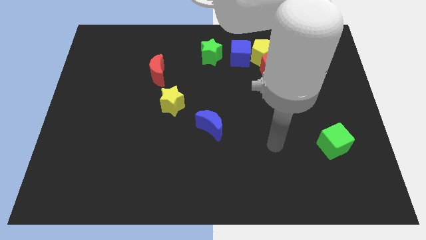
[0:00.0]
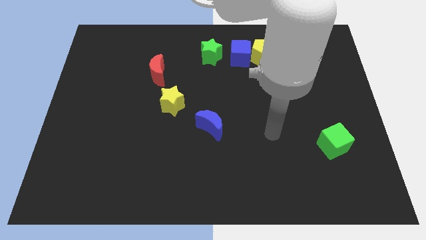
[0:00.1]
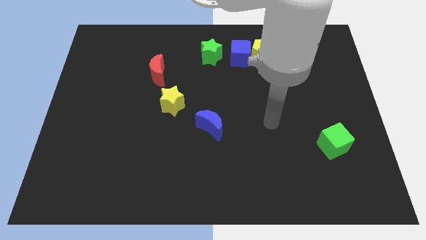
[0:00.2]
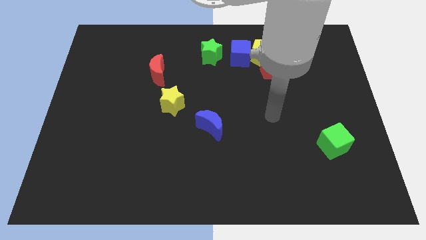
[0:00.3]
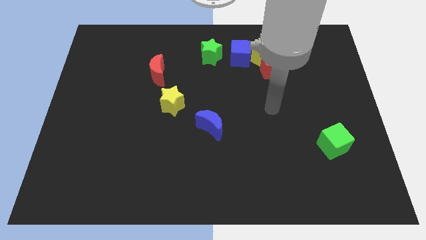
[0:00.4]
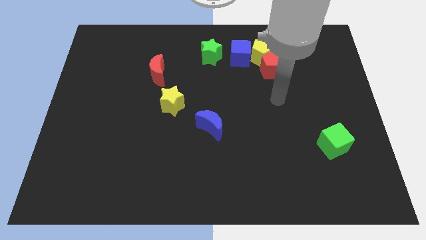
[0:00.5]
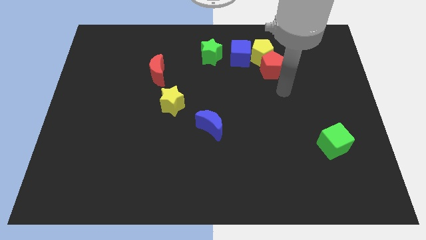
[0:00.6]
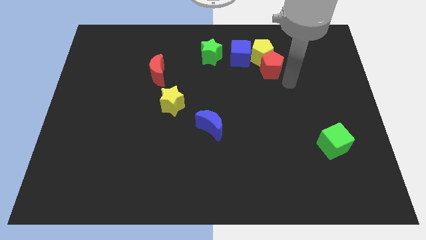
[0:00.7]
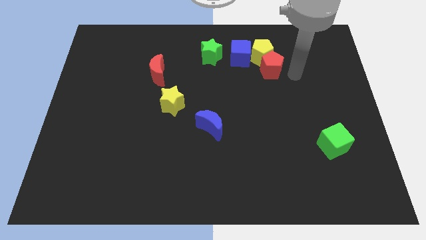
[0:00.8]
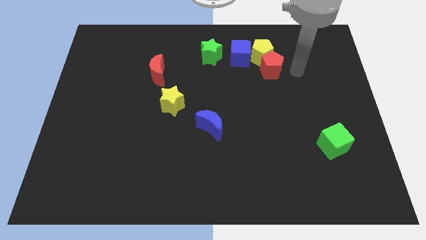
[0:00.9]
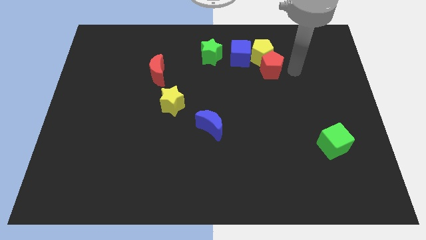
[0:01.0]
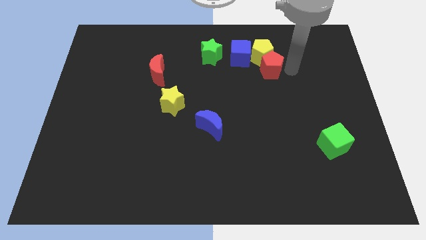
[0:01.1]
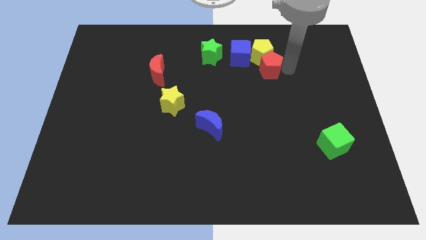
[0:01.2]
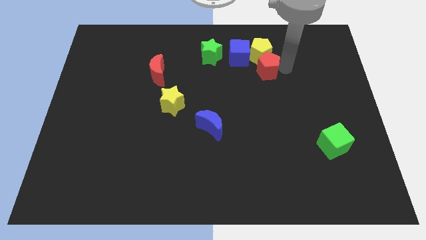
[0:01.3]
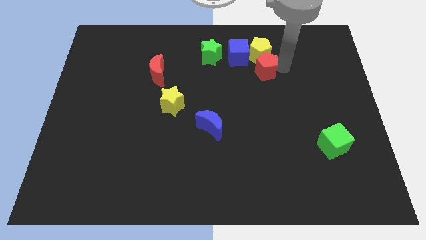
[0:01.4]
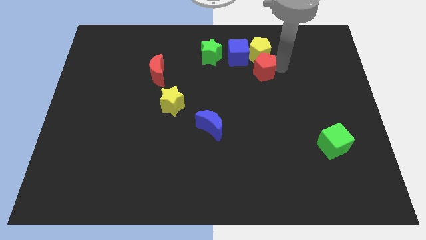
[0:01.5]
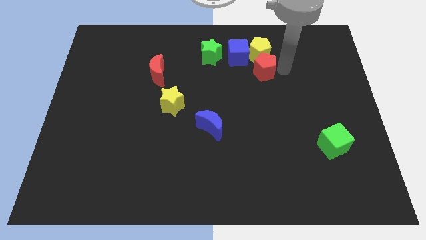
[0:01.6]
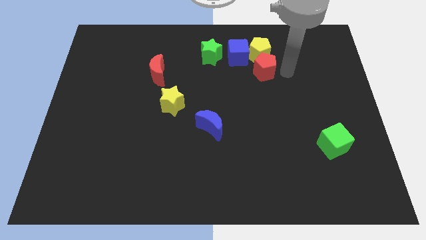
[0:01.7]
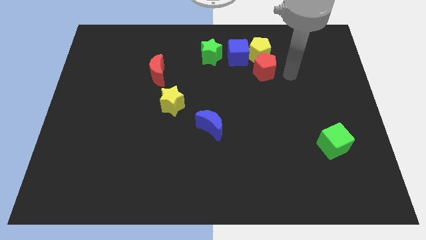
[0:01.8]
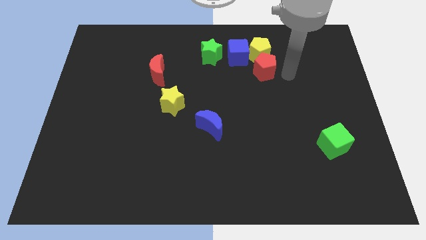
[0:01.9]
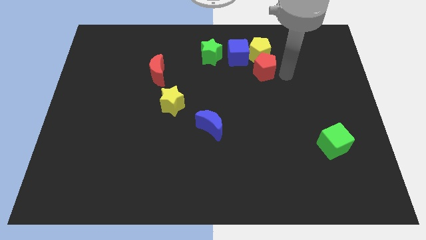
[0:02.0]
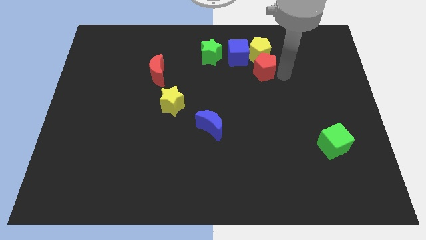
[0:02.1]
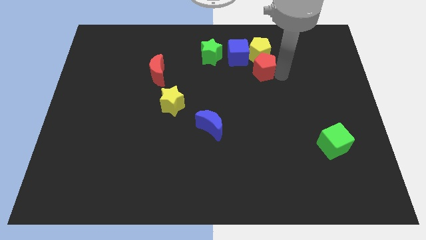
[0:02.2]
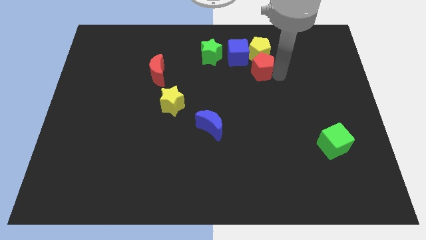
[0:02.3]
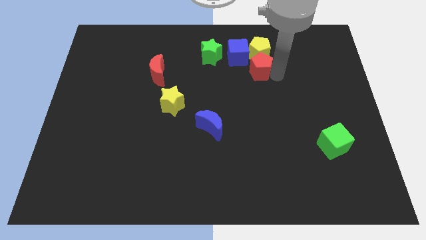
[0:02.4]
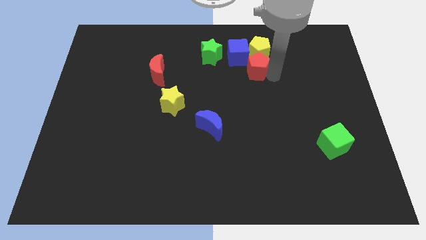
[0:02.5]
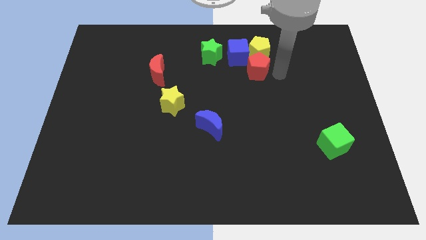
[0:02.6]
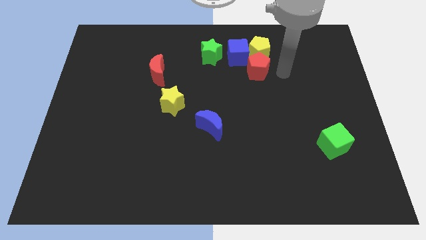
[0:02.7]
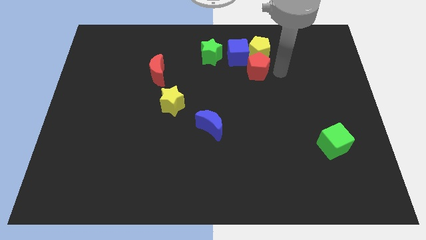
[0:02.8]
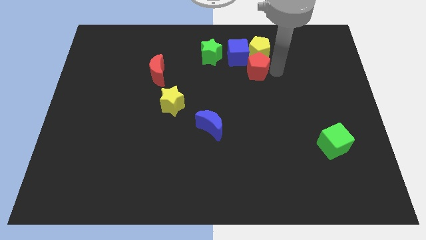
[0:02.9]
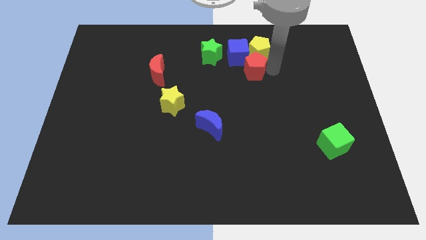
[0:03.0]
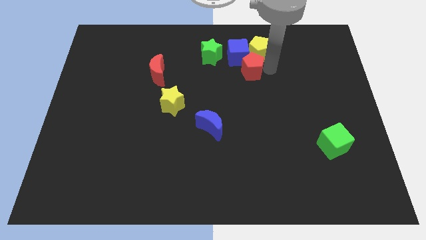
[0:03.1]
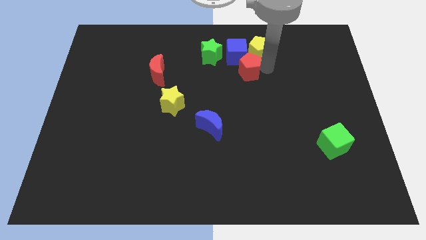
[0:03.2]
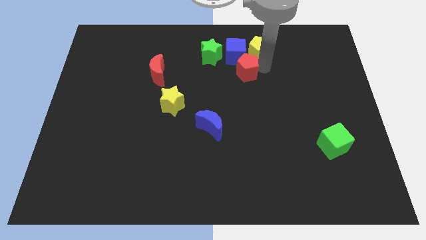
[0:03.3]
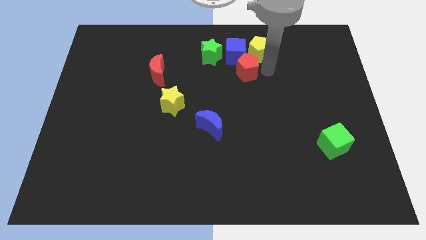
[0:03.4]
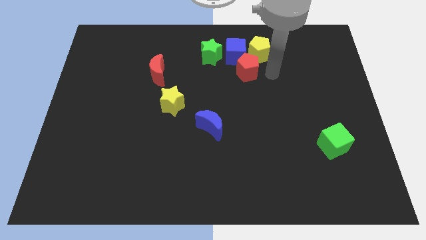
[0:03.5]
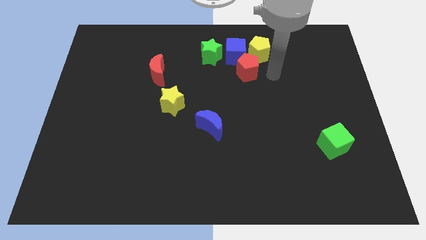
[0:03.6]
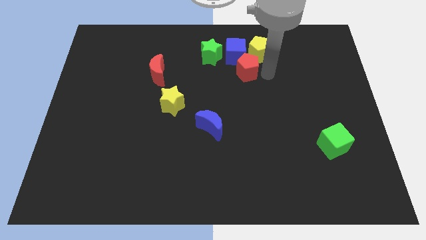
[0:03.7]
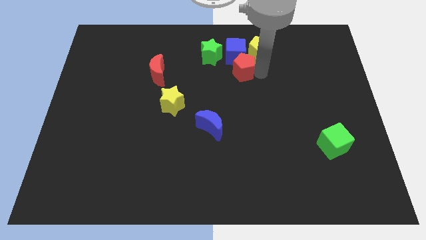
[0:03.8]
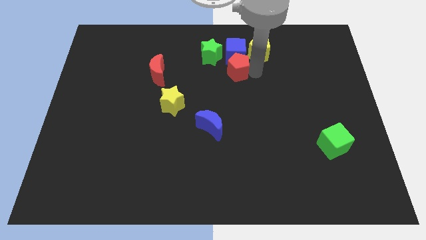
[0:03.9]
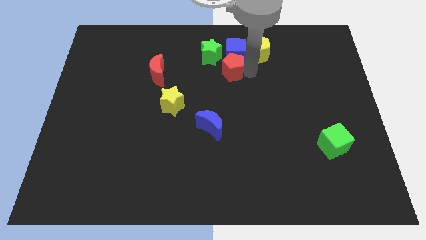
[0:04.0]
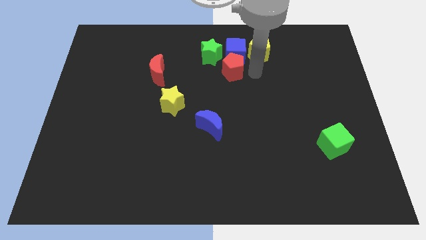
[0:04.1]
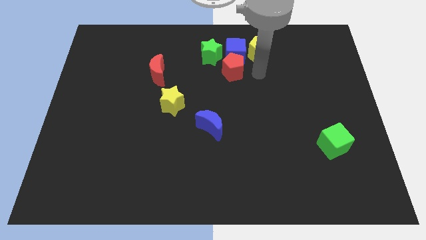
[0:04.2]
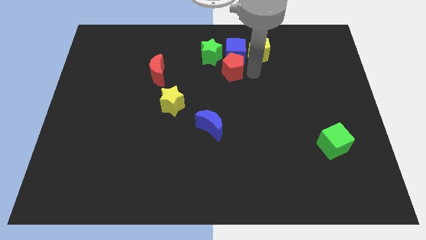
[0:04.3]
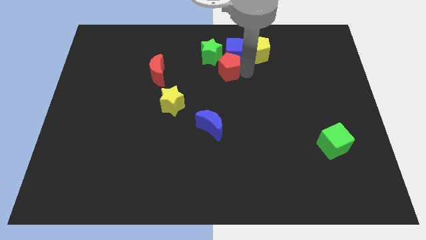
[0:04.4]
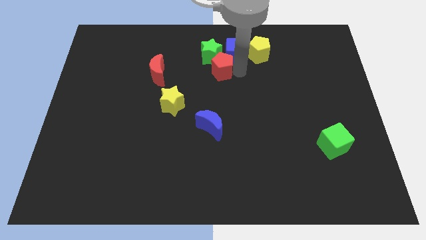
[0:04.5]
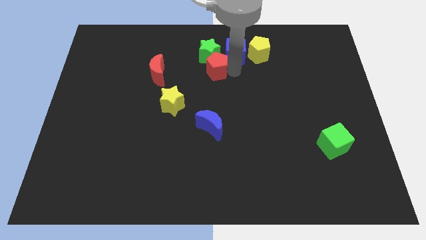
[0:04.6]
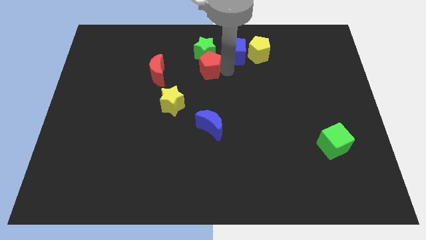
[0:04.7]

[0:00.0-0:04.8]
slide the red pentagon diagonally down and to the left of the green star

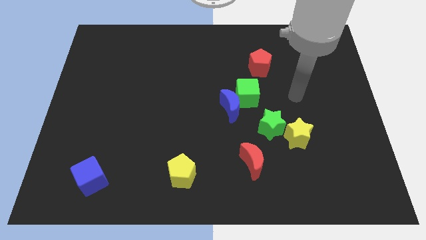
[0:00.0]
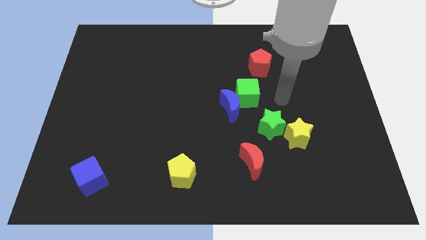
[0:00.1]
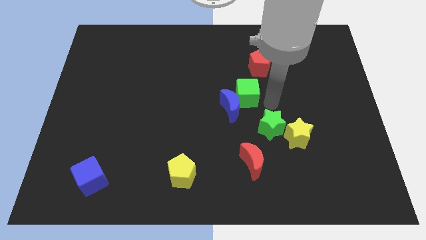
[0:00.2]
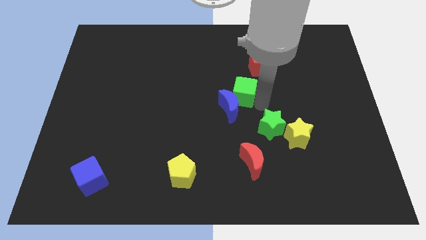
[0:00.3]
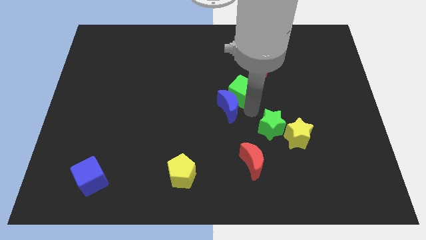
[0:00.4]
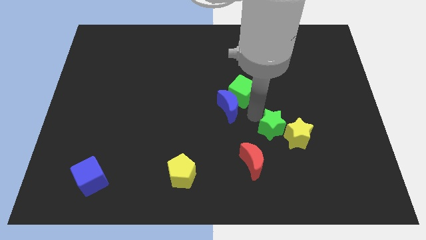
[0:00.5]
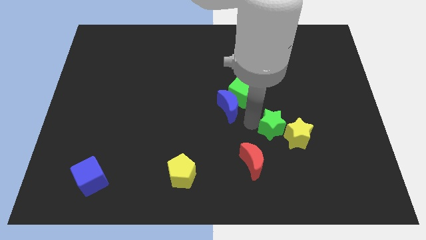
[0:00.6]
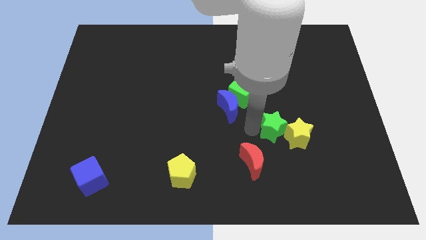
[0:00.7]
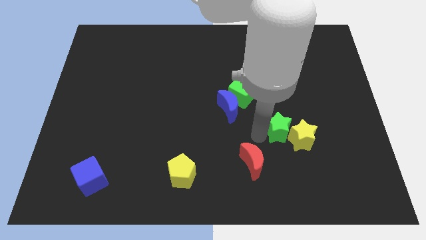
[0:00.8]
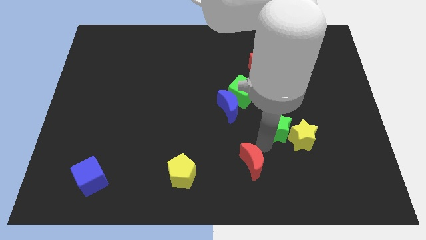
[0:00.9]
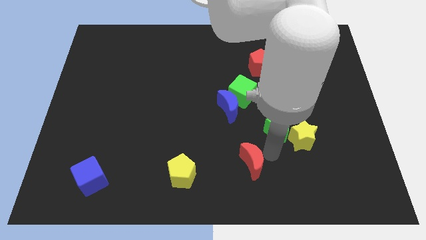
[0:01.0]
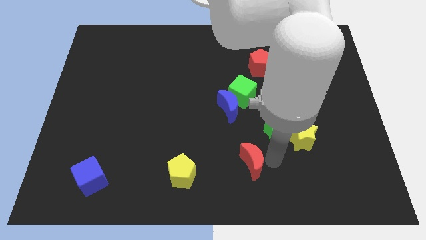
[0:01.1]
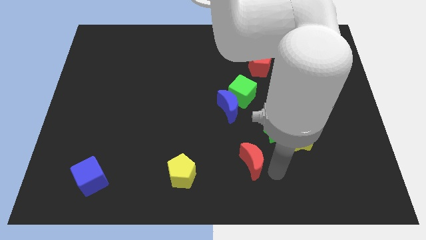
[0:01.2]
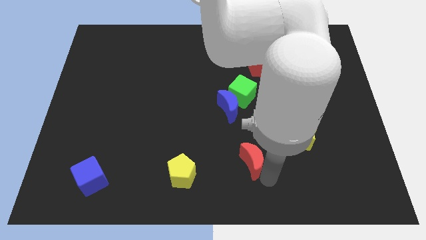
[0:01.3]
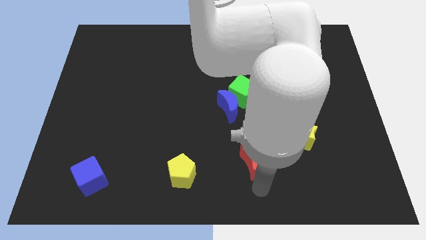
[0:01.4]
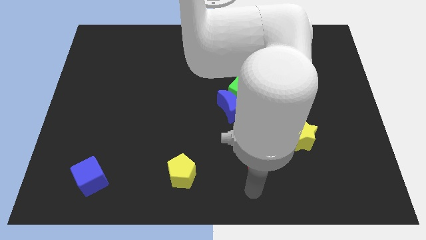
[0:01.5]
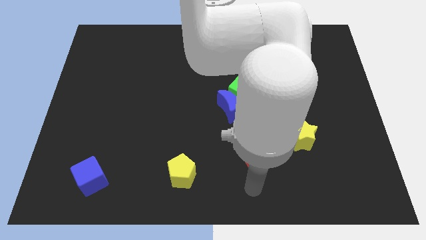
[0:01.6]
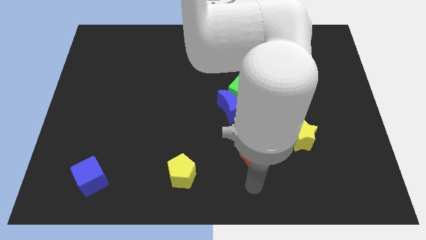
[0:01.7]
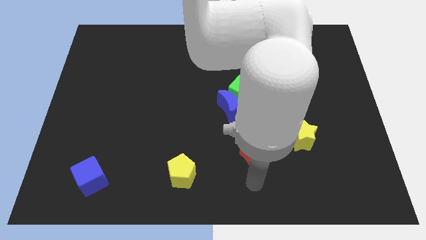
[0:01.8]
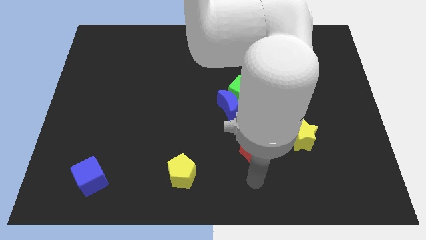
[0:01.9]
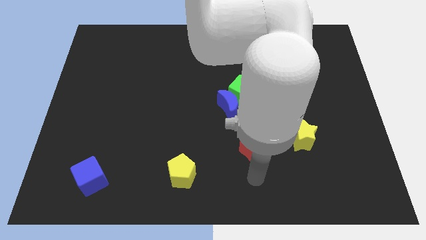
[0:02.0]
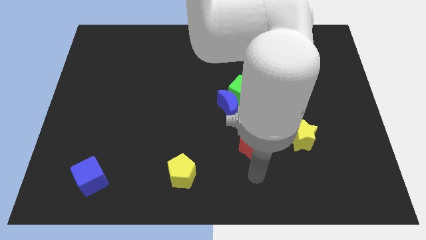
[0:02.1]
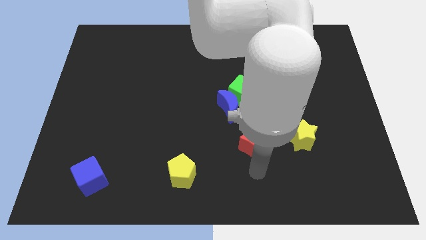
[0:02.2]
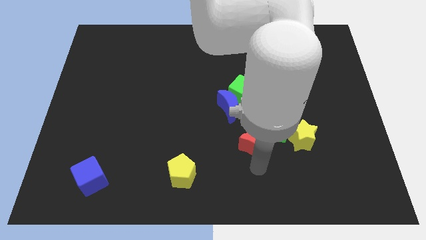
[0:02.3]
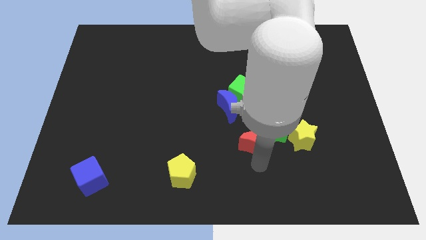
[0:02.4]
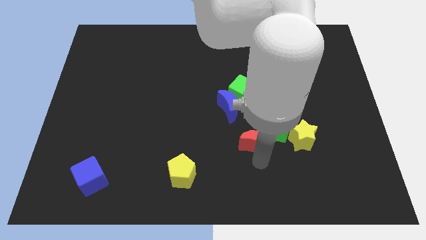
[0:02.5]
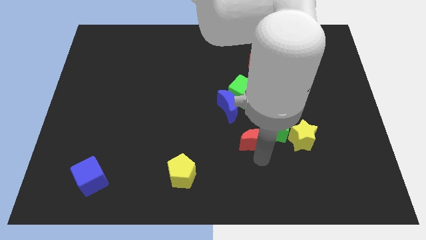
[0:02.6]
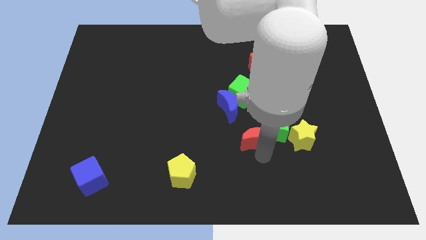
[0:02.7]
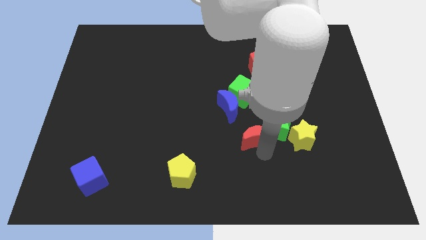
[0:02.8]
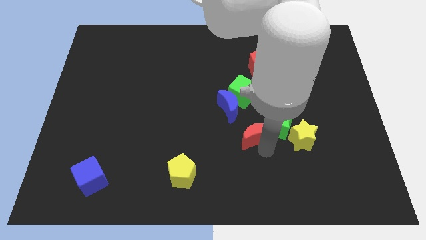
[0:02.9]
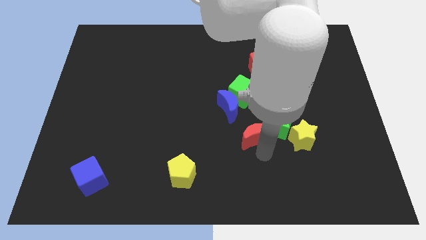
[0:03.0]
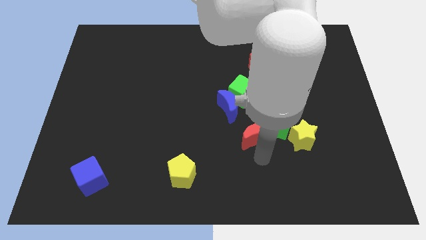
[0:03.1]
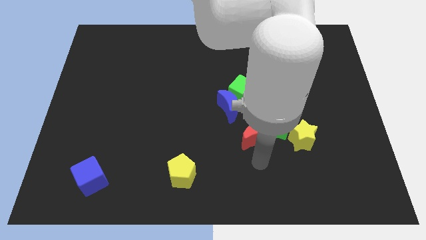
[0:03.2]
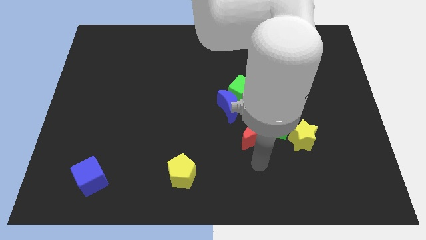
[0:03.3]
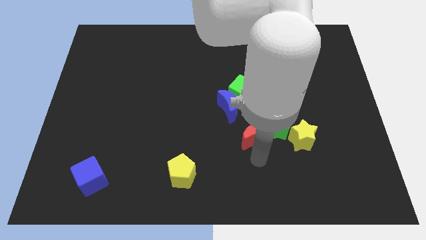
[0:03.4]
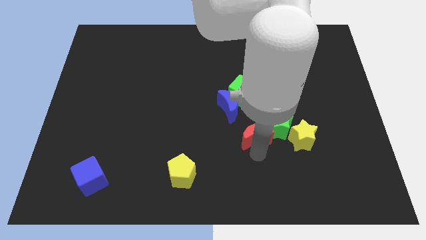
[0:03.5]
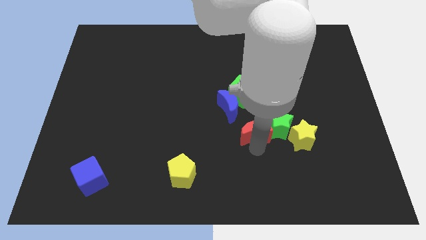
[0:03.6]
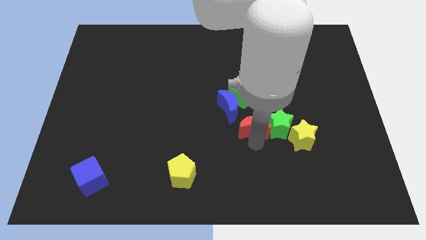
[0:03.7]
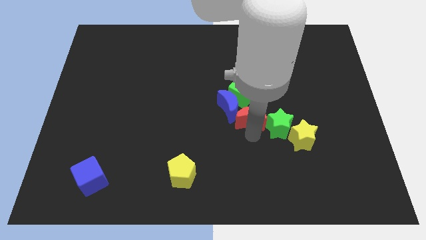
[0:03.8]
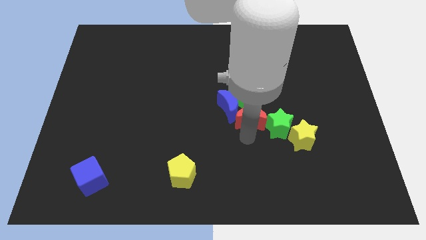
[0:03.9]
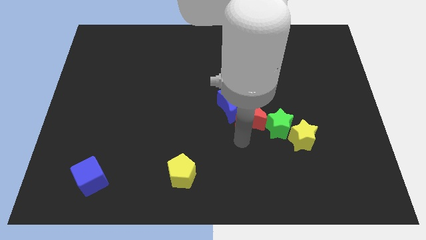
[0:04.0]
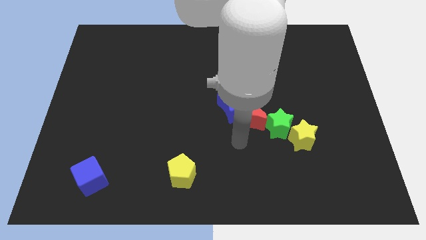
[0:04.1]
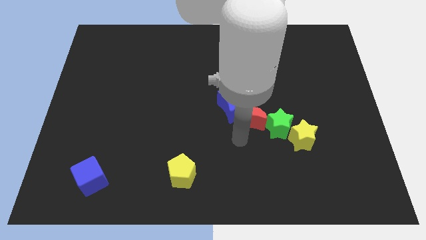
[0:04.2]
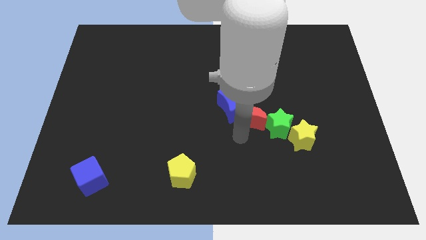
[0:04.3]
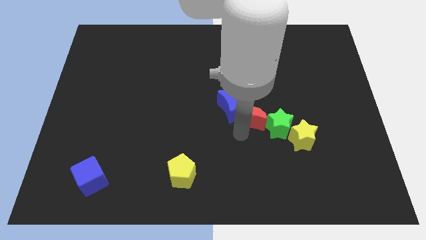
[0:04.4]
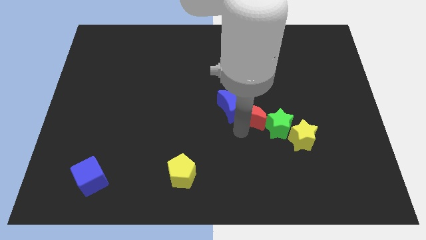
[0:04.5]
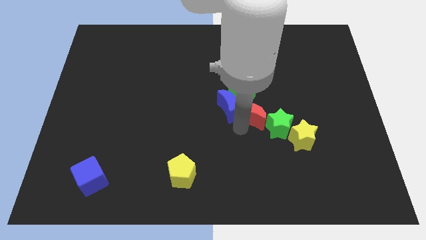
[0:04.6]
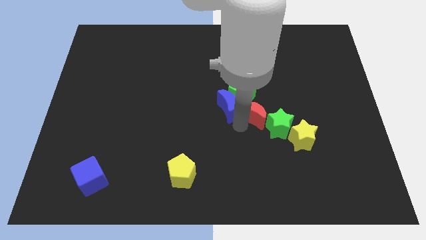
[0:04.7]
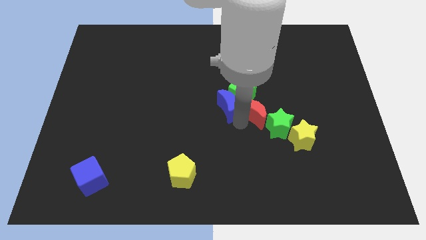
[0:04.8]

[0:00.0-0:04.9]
slide the red moon to the bottom side of the red pentagon
